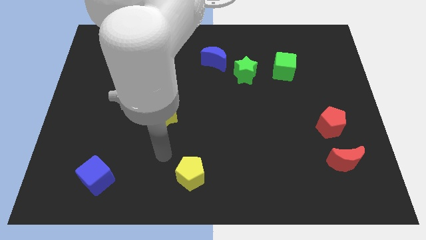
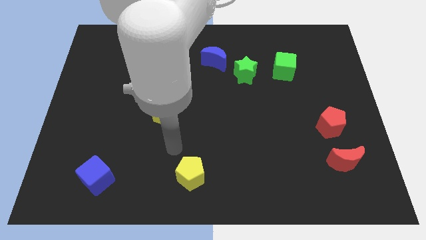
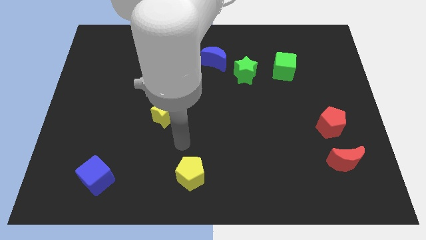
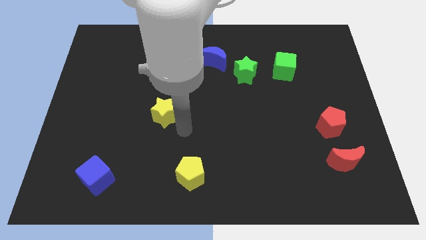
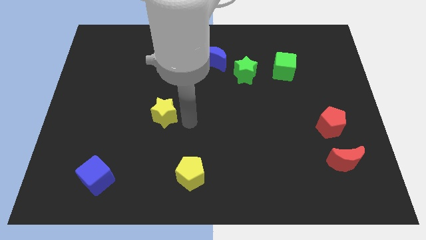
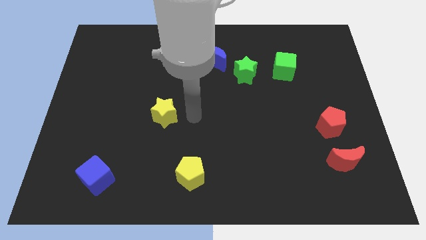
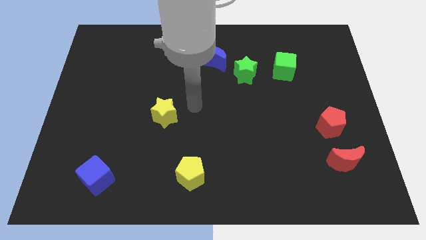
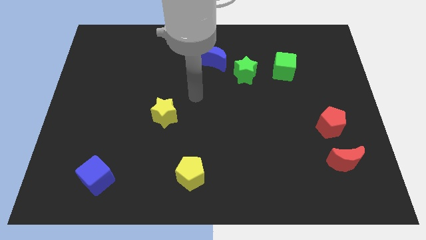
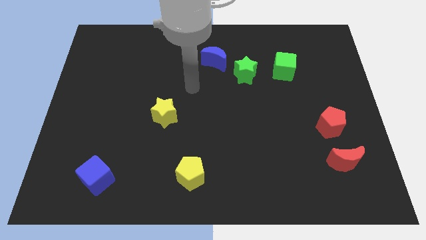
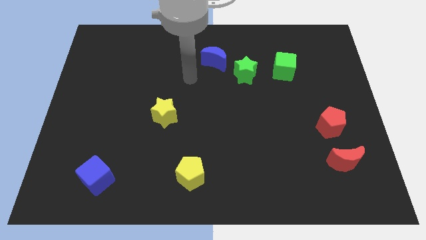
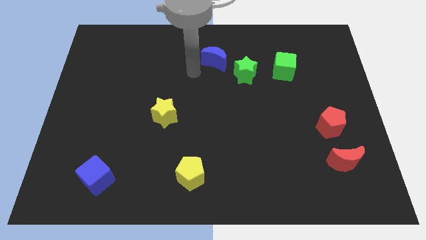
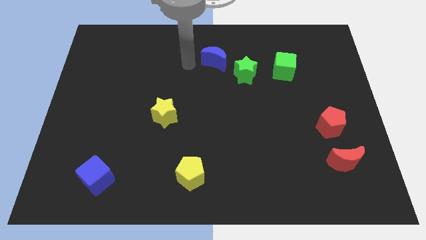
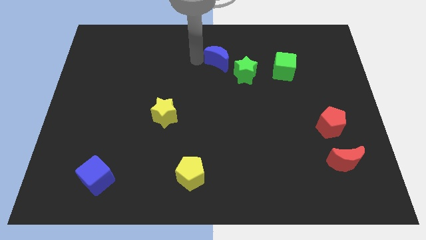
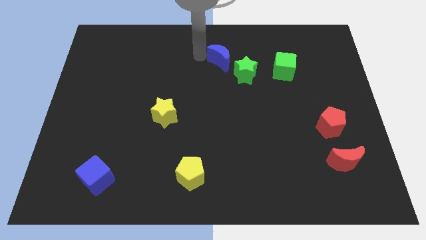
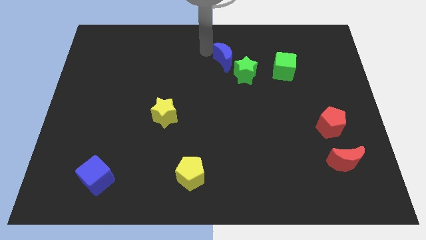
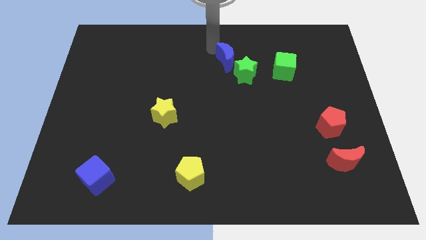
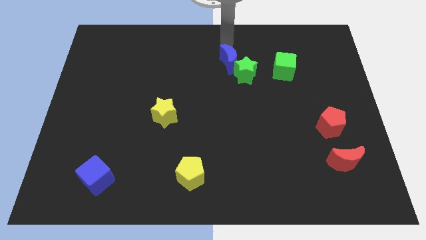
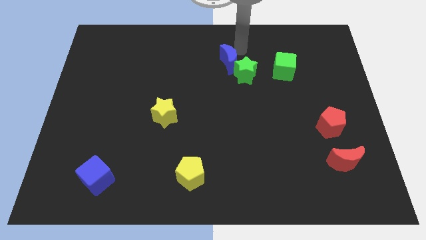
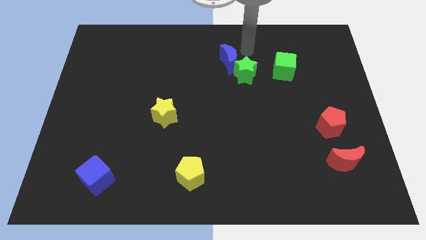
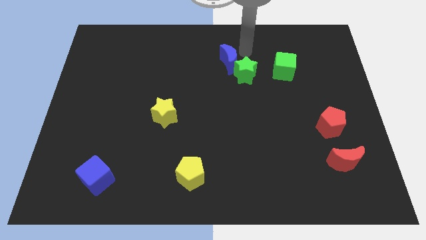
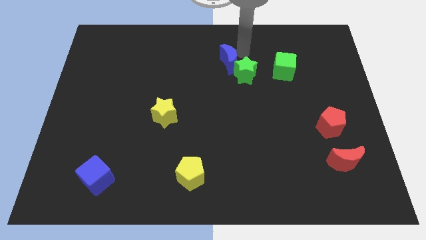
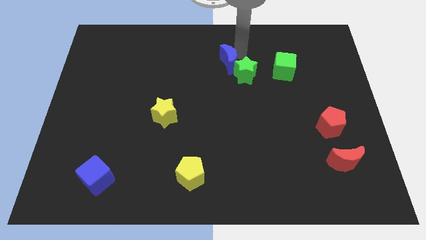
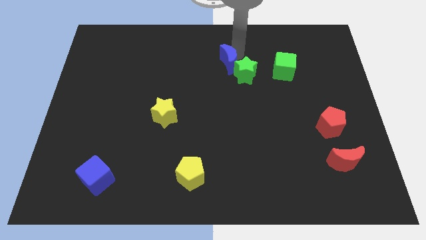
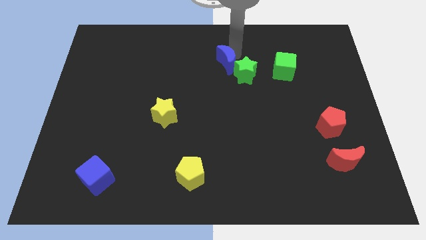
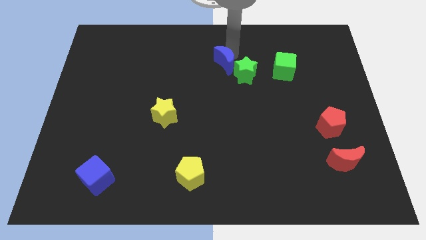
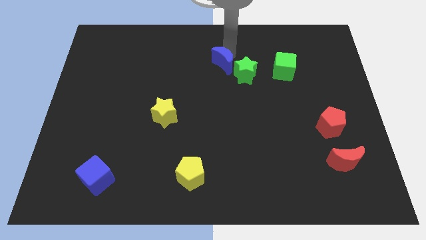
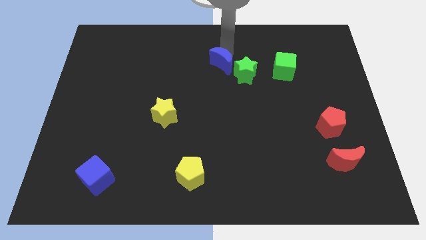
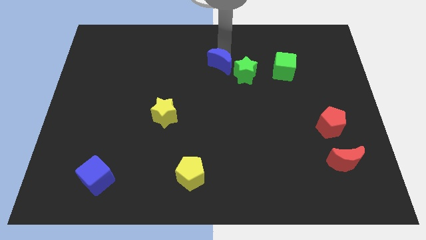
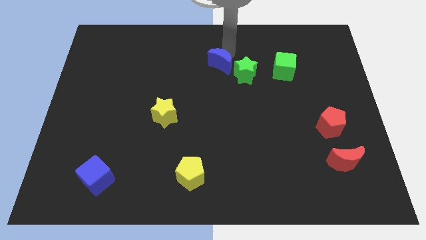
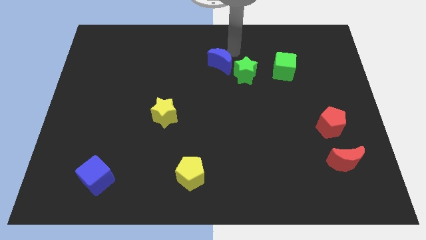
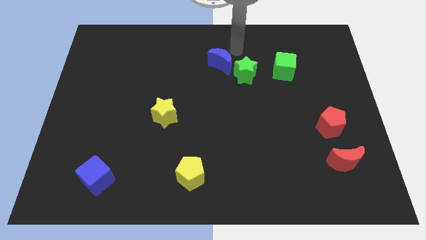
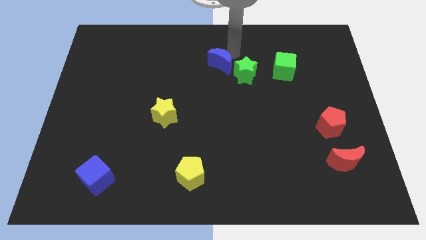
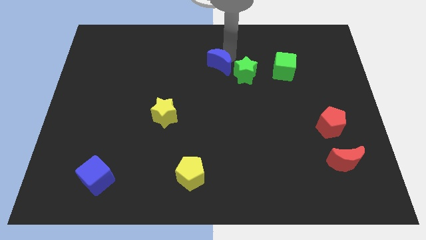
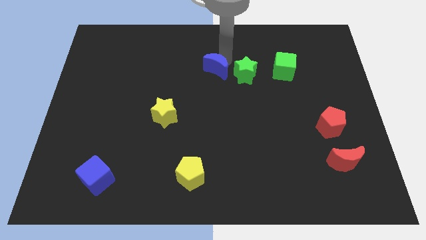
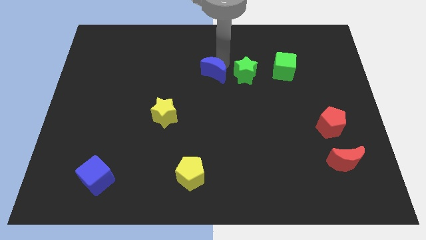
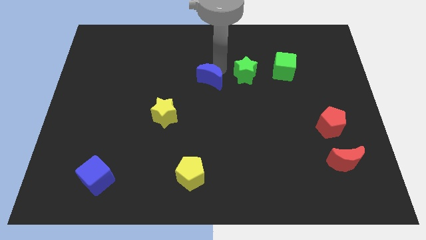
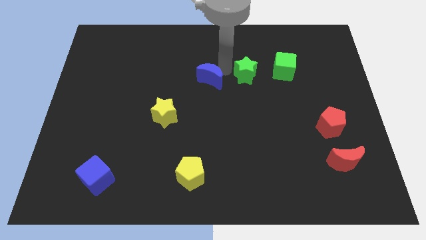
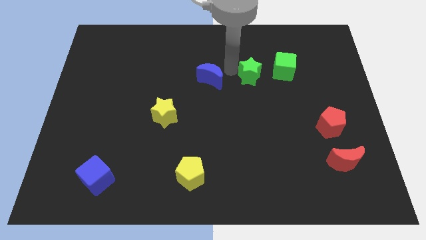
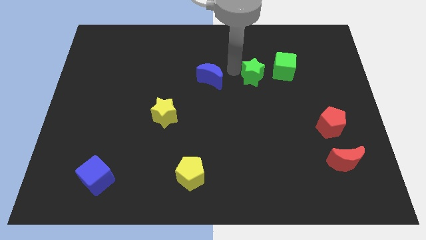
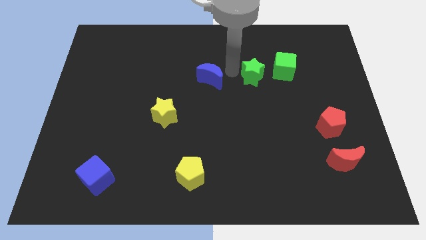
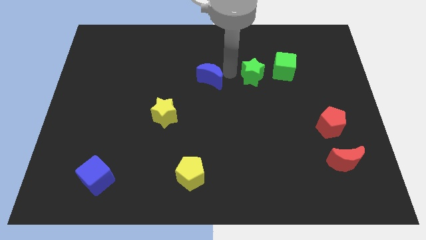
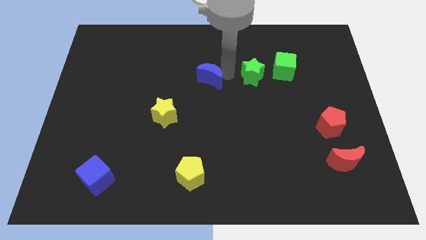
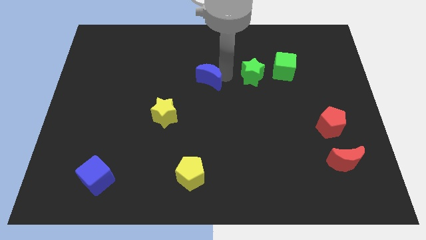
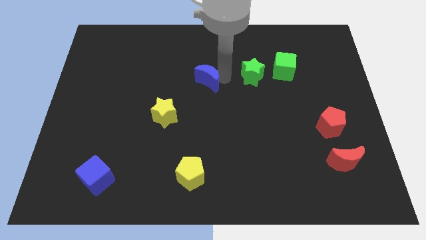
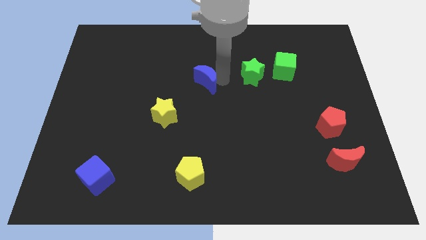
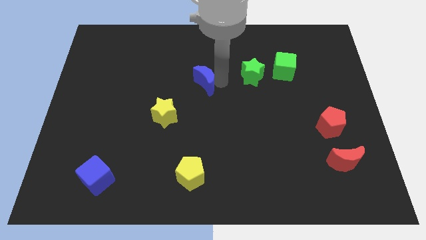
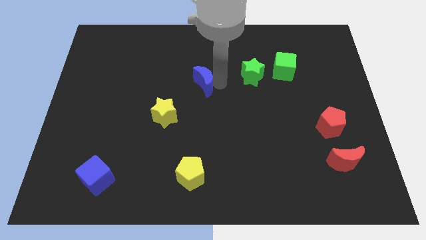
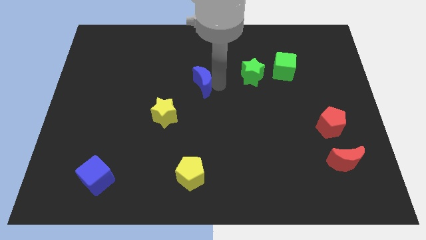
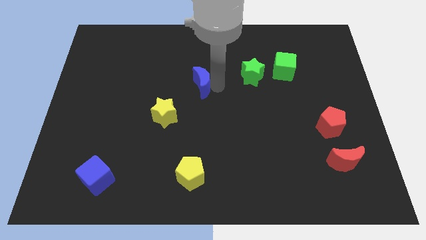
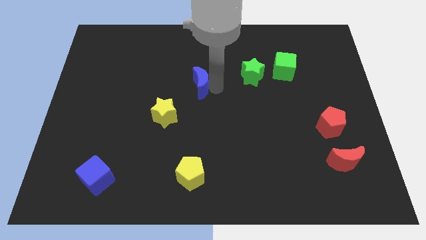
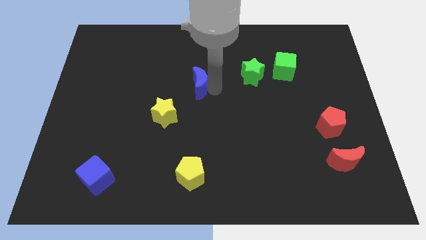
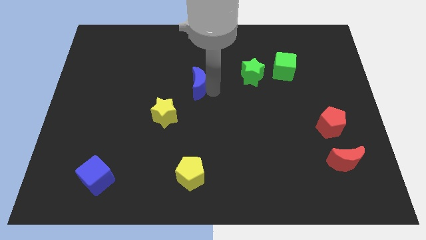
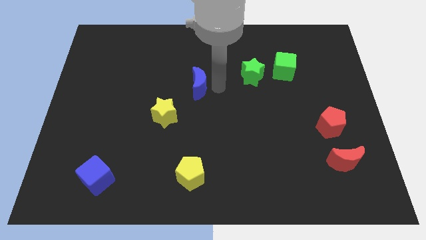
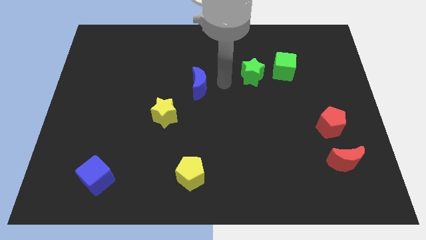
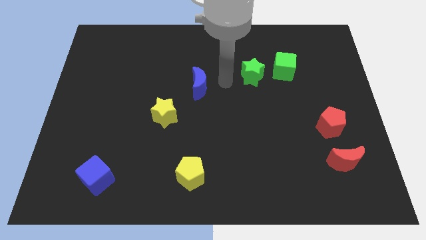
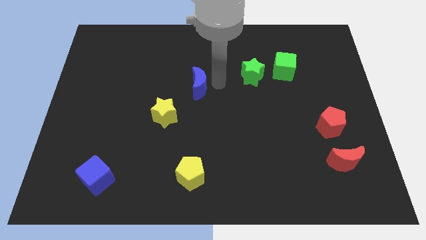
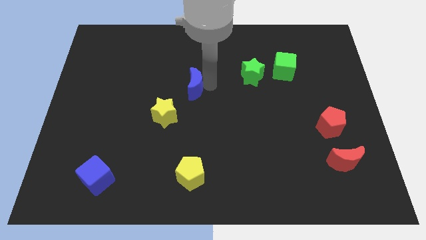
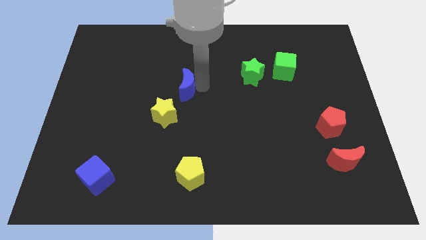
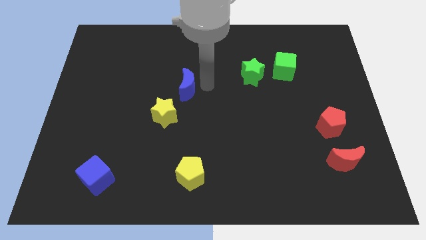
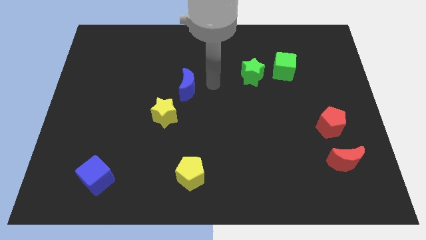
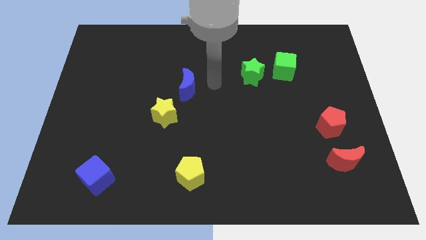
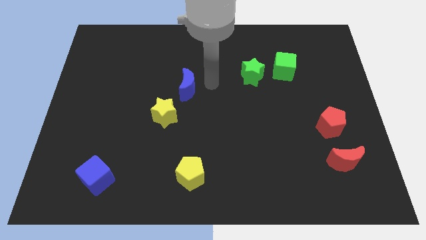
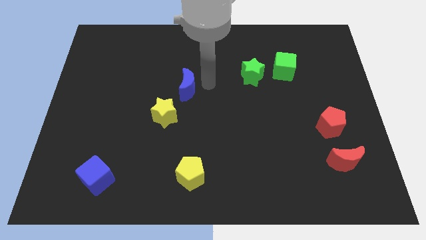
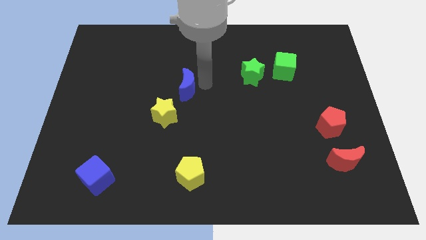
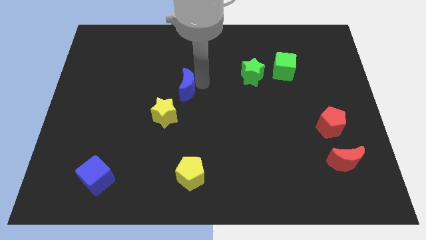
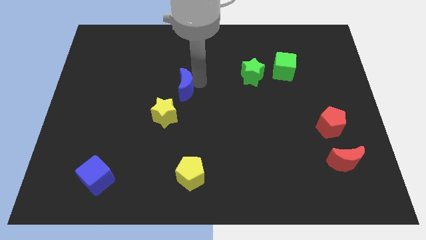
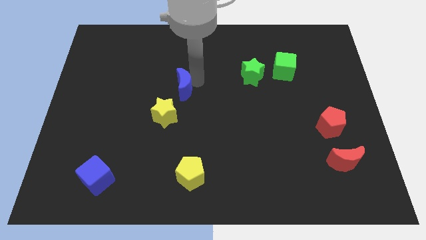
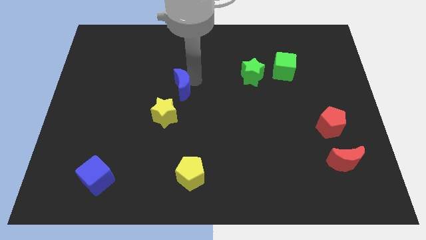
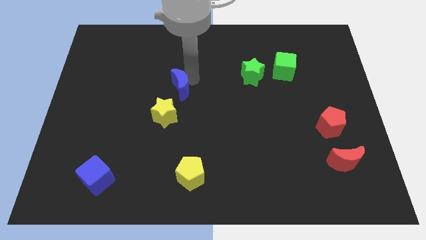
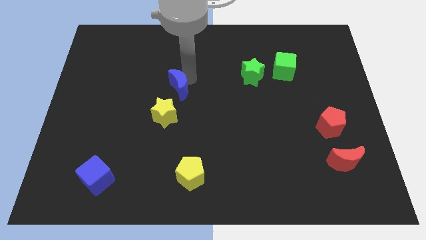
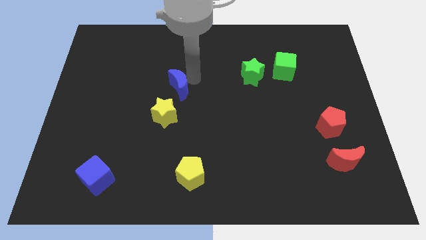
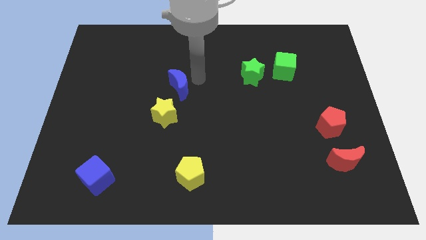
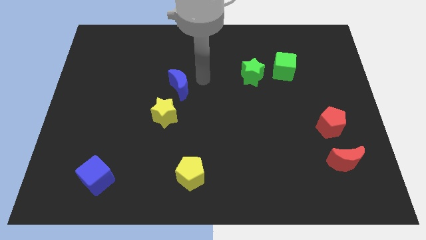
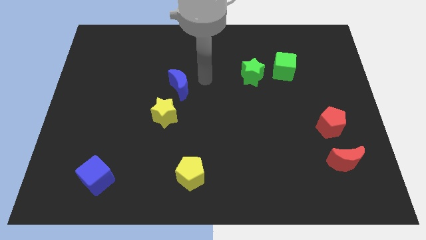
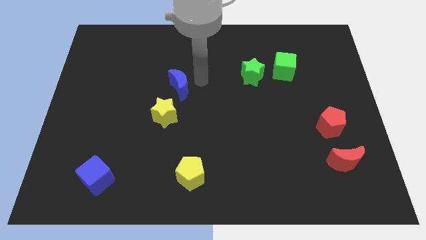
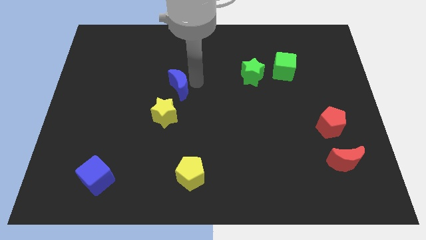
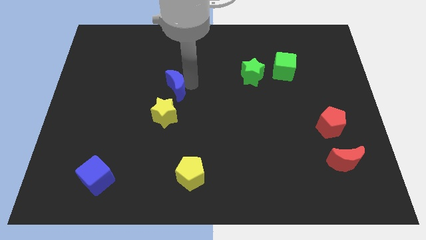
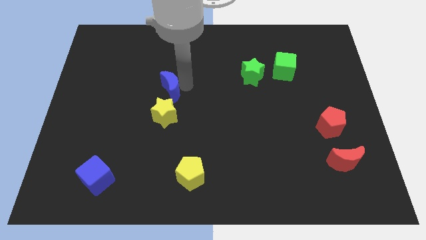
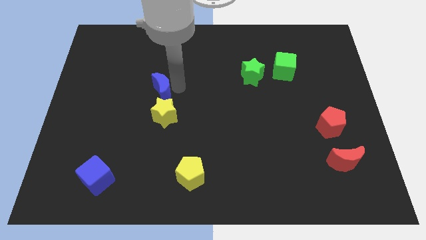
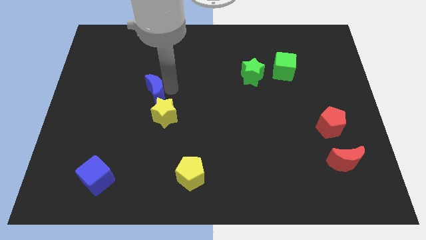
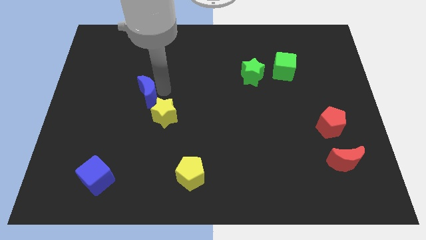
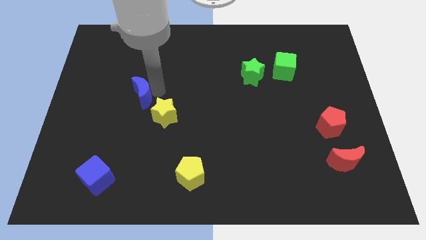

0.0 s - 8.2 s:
move the blue moon down and then left
